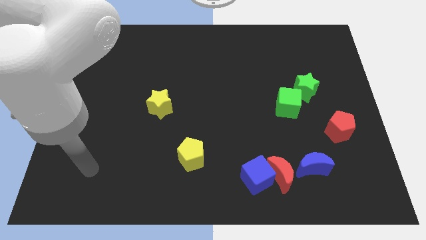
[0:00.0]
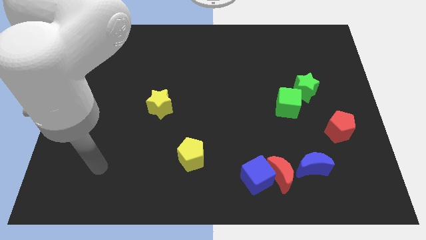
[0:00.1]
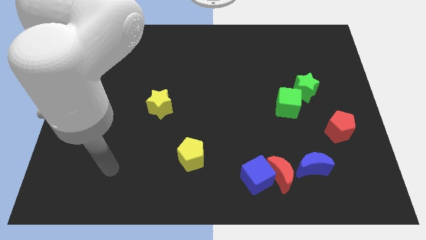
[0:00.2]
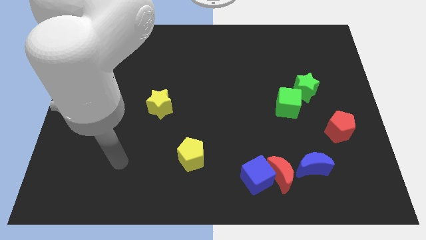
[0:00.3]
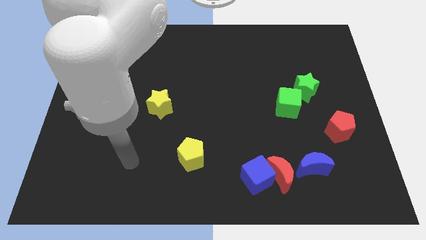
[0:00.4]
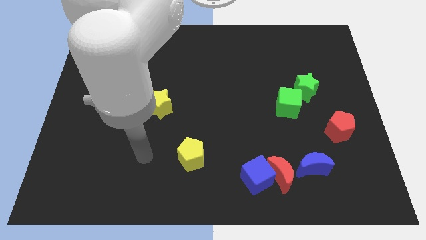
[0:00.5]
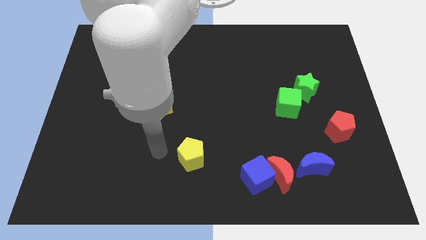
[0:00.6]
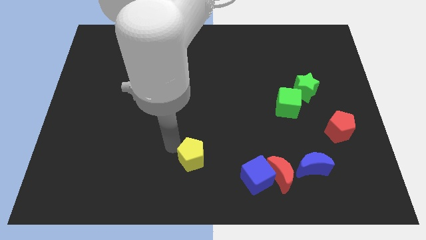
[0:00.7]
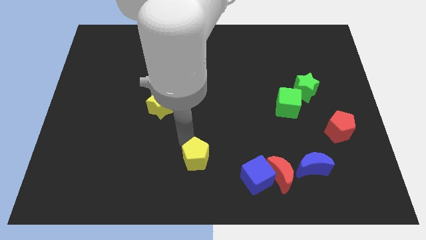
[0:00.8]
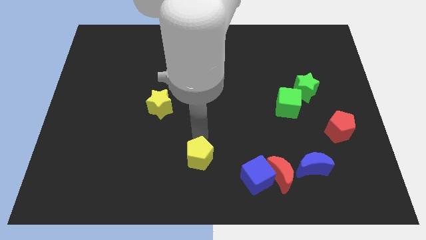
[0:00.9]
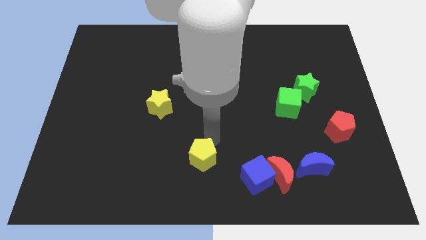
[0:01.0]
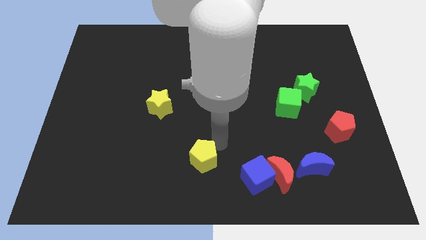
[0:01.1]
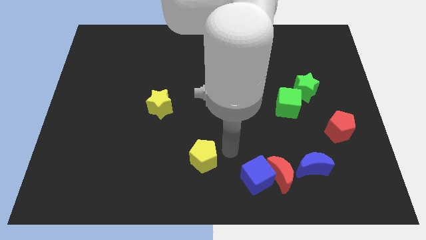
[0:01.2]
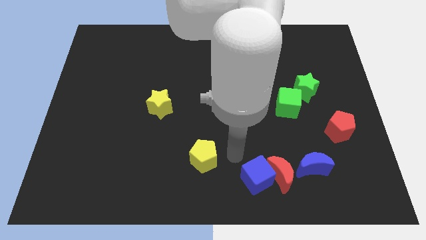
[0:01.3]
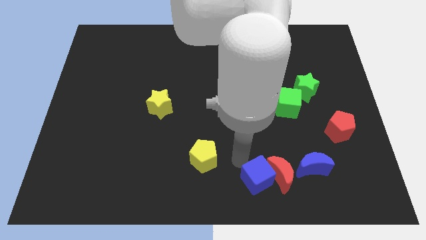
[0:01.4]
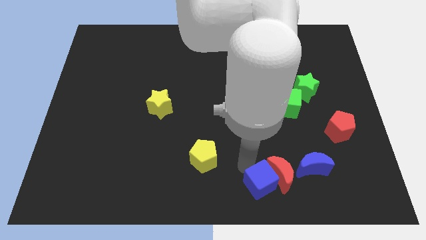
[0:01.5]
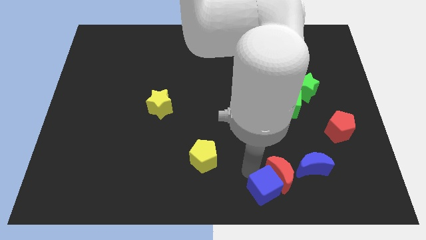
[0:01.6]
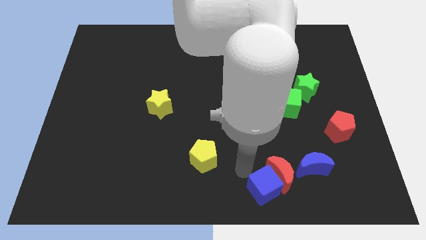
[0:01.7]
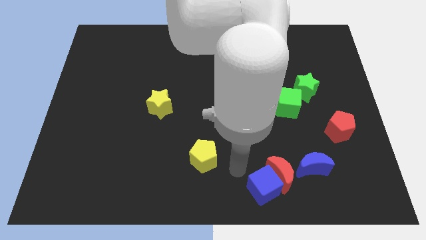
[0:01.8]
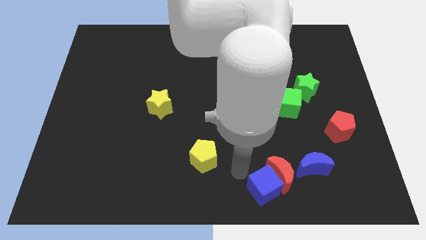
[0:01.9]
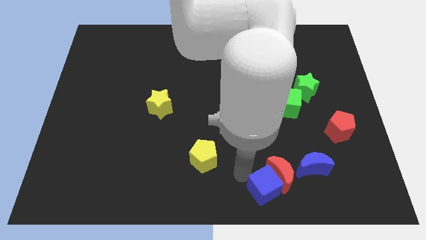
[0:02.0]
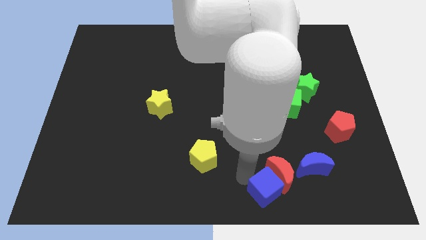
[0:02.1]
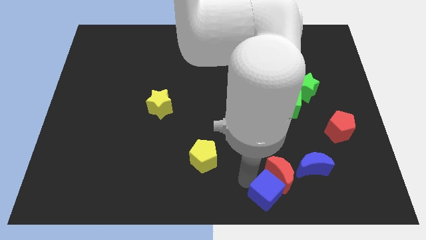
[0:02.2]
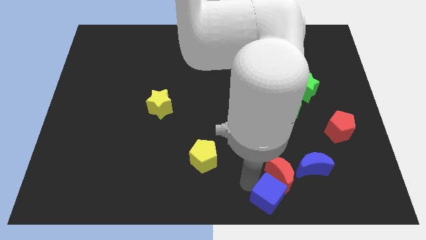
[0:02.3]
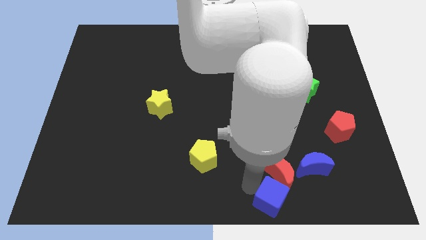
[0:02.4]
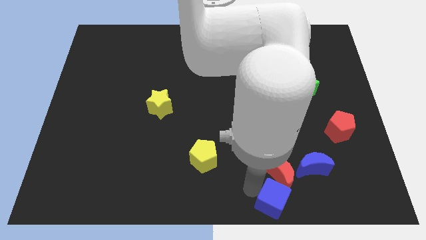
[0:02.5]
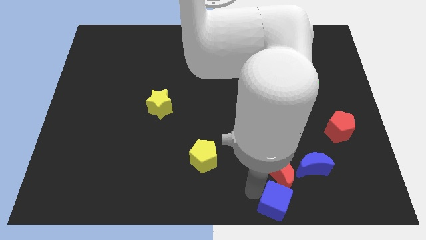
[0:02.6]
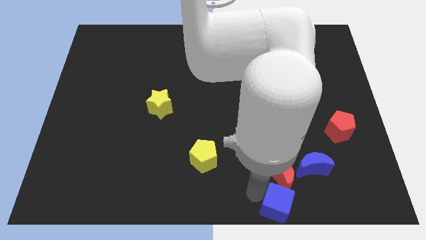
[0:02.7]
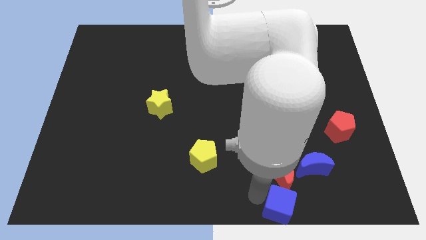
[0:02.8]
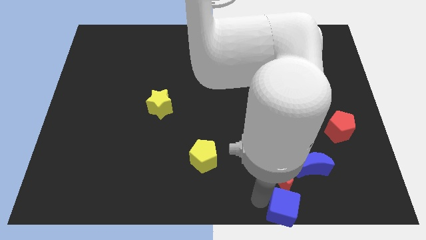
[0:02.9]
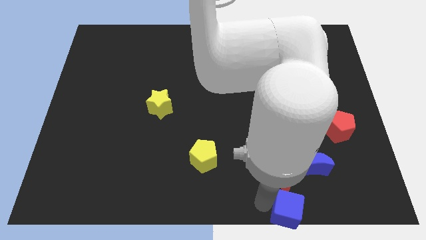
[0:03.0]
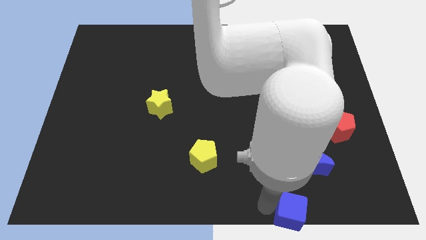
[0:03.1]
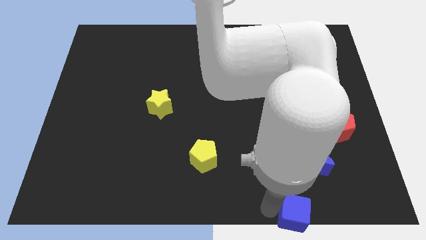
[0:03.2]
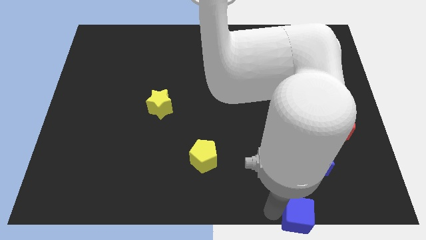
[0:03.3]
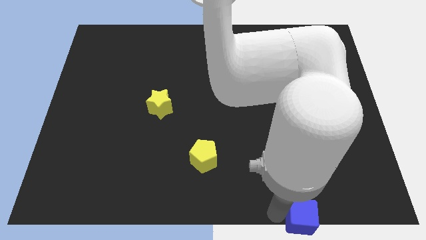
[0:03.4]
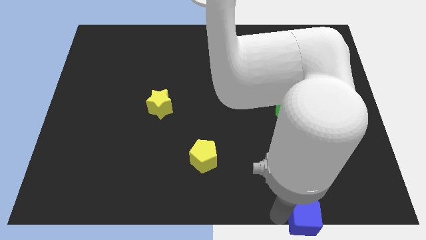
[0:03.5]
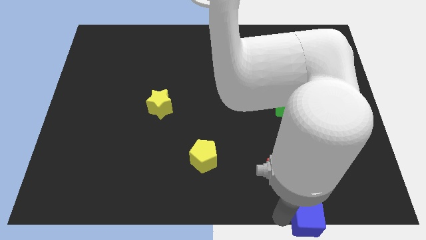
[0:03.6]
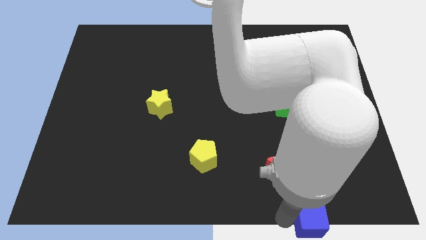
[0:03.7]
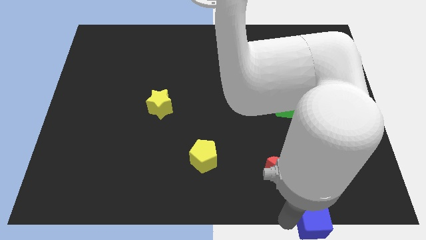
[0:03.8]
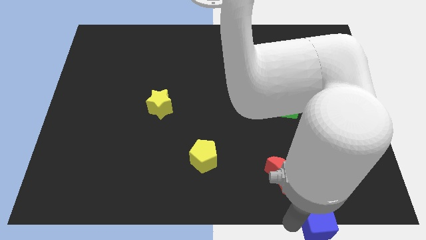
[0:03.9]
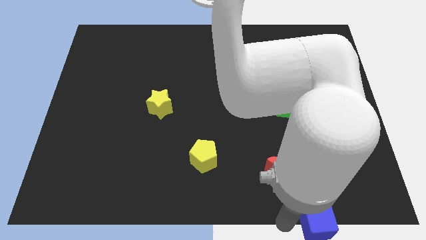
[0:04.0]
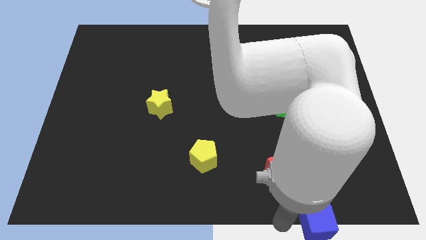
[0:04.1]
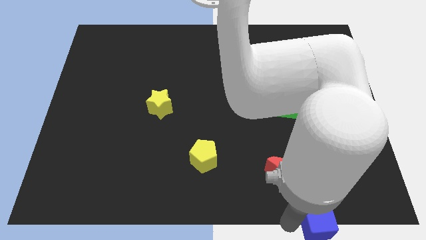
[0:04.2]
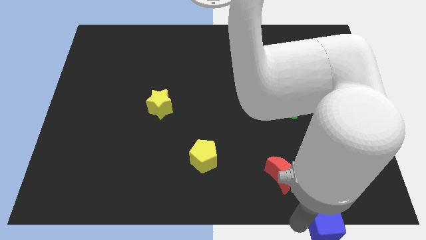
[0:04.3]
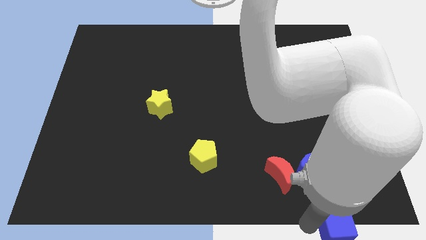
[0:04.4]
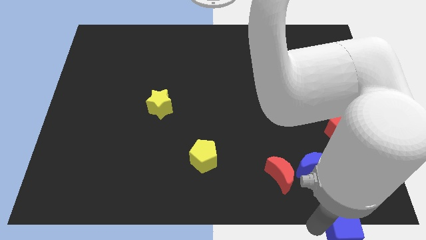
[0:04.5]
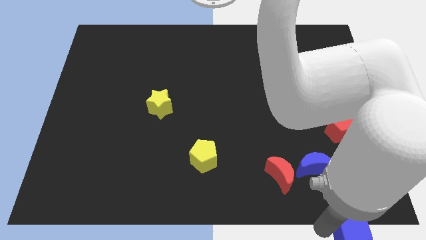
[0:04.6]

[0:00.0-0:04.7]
slide the blue cube to the bottom right of the board

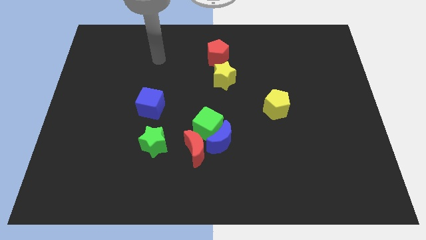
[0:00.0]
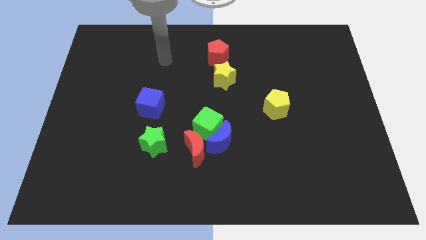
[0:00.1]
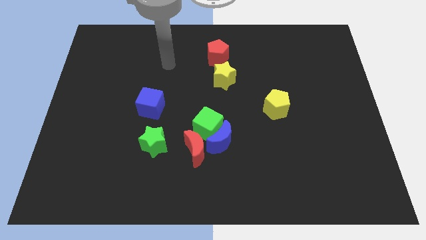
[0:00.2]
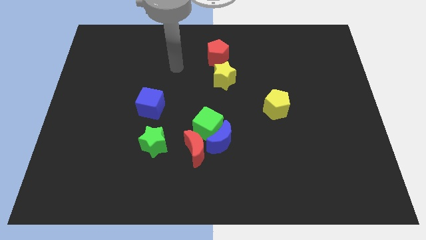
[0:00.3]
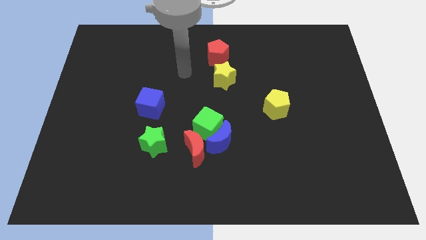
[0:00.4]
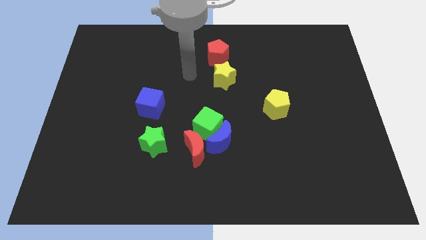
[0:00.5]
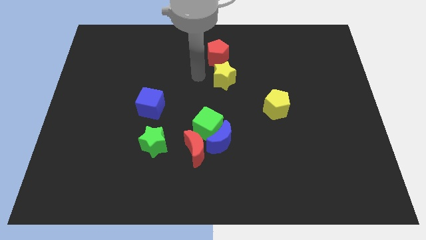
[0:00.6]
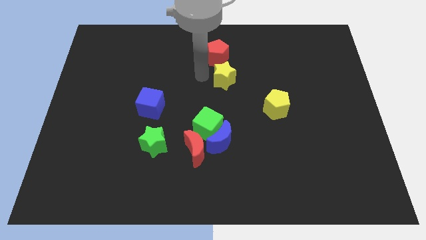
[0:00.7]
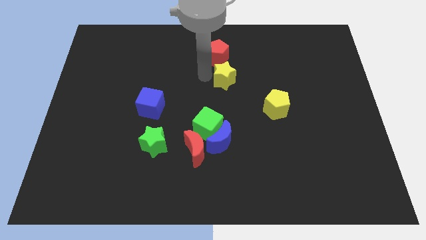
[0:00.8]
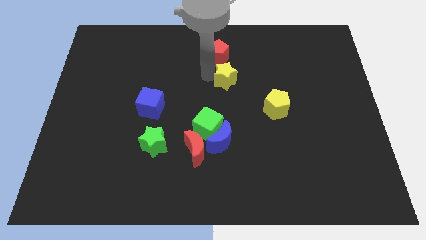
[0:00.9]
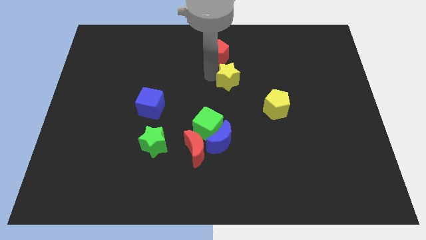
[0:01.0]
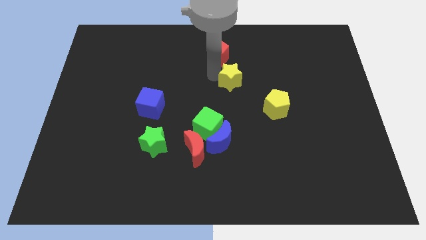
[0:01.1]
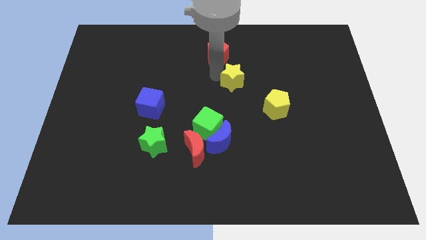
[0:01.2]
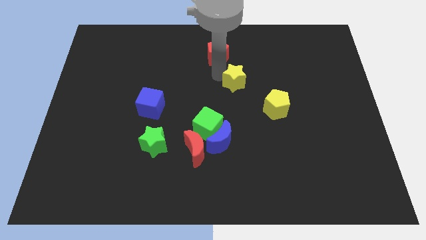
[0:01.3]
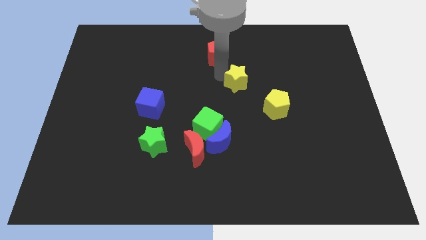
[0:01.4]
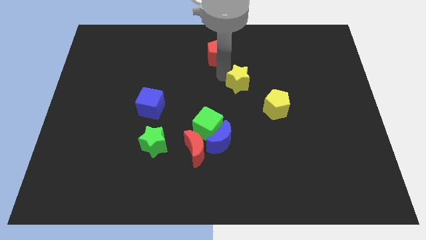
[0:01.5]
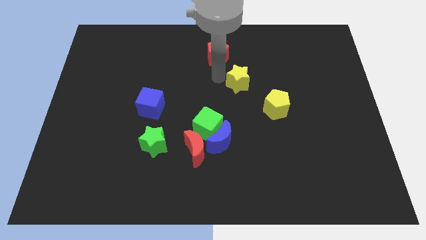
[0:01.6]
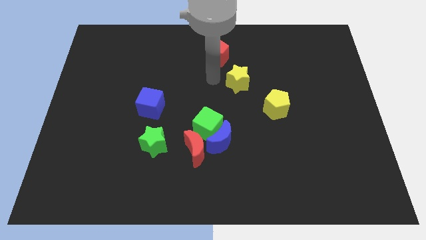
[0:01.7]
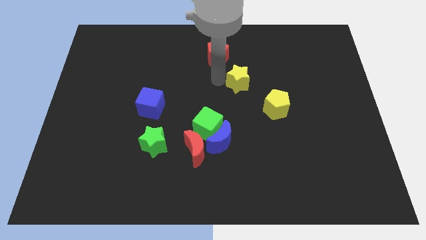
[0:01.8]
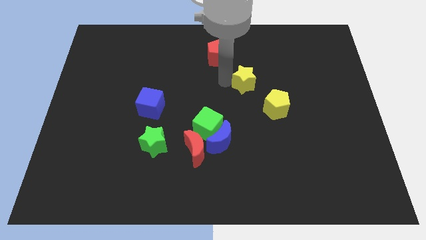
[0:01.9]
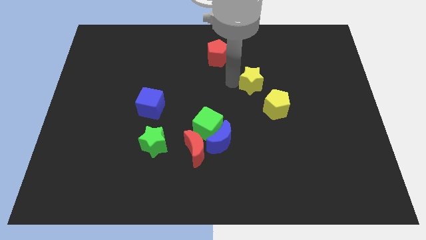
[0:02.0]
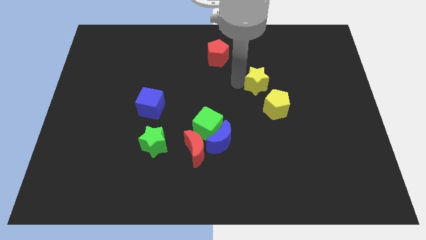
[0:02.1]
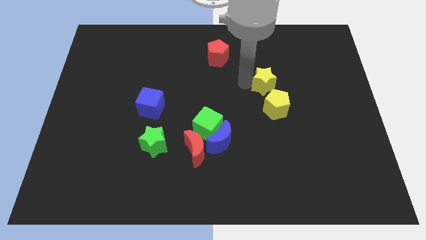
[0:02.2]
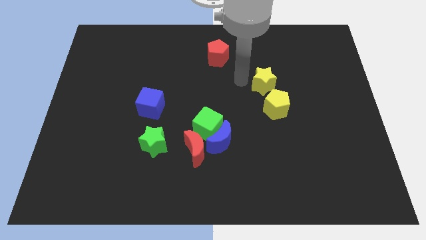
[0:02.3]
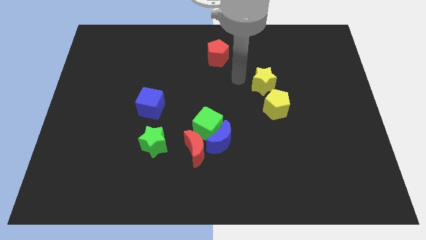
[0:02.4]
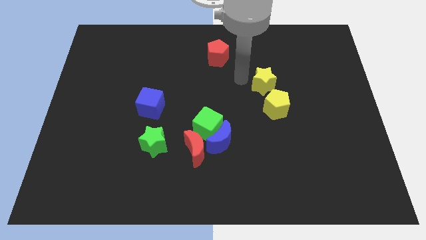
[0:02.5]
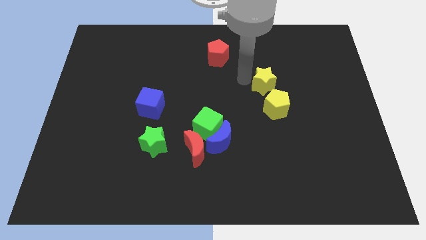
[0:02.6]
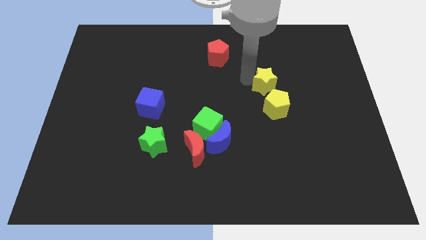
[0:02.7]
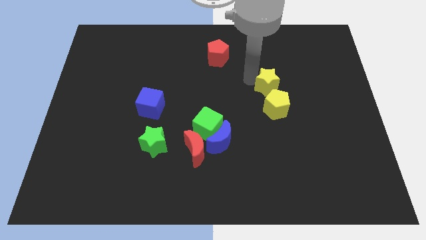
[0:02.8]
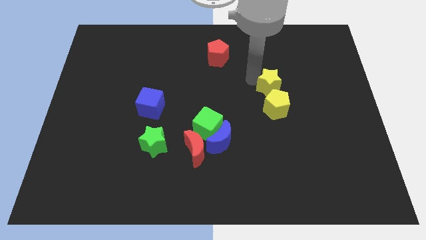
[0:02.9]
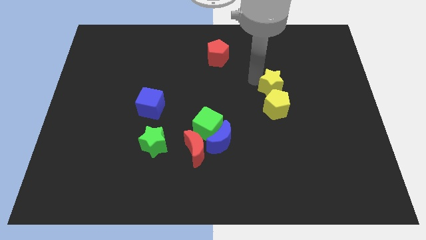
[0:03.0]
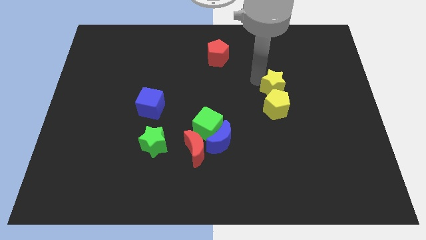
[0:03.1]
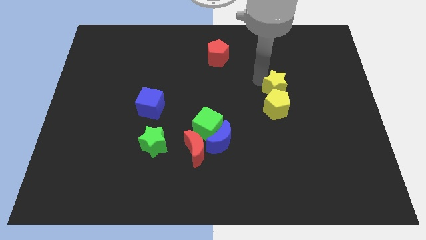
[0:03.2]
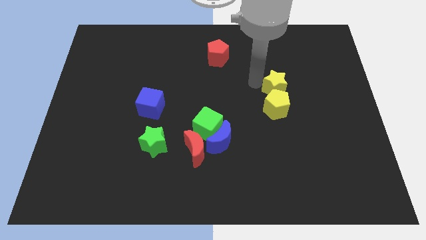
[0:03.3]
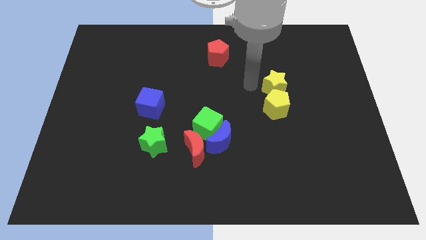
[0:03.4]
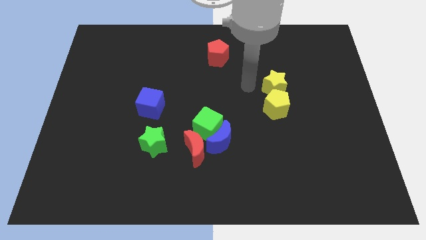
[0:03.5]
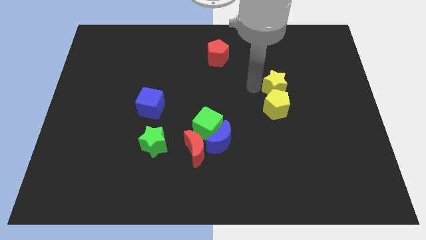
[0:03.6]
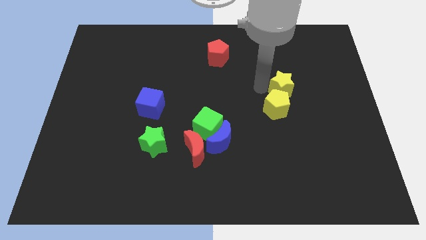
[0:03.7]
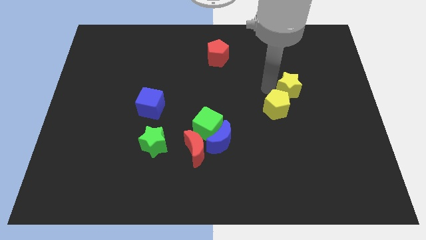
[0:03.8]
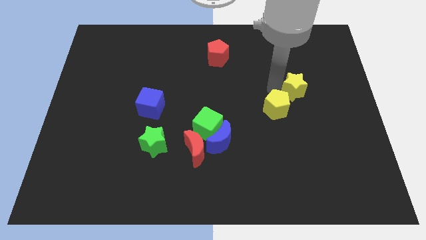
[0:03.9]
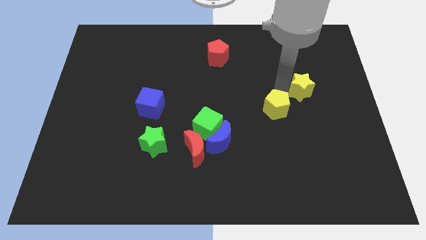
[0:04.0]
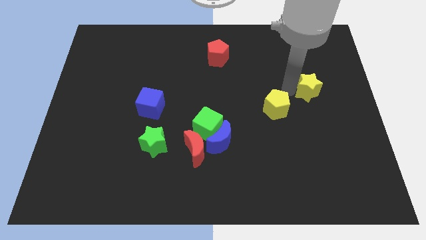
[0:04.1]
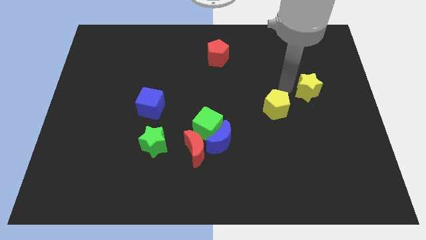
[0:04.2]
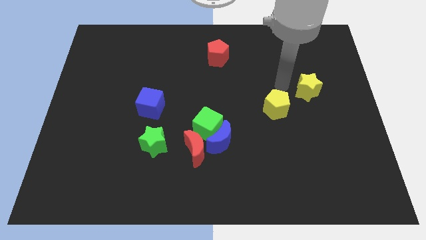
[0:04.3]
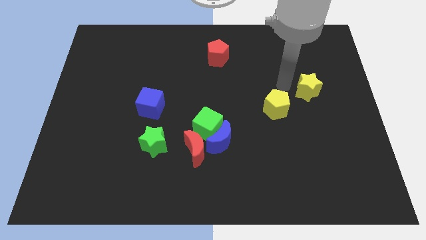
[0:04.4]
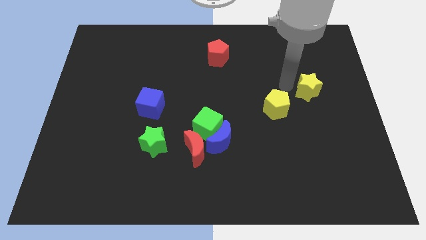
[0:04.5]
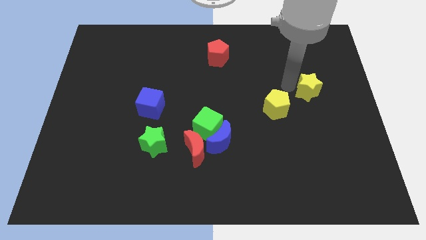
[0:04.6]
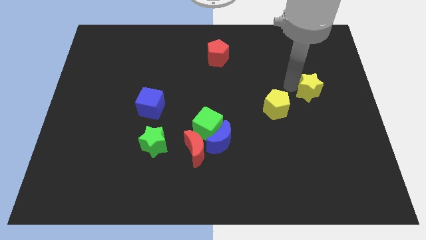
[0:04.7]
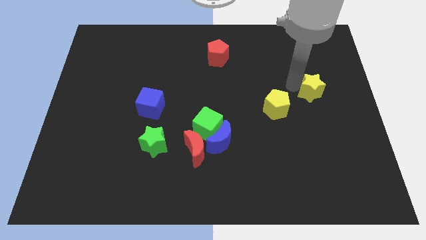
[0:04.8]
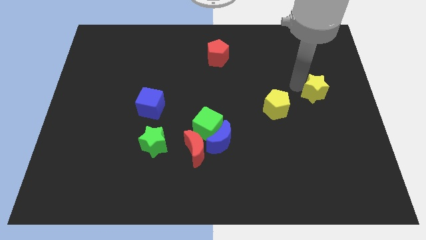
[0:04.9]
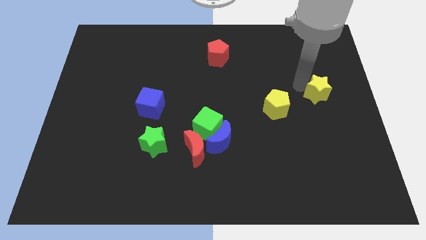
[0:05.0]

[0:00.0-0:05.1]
push the yellow star to the center right
